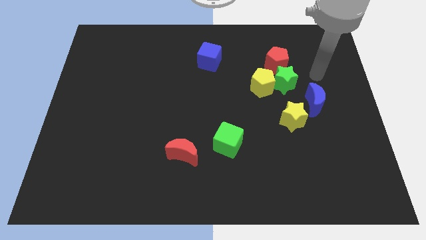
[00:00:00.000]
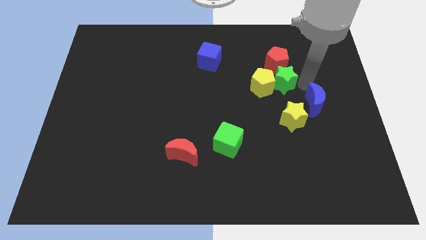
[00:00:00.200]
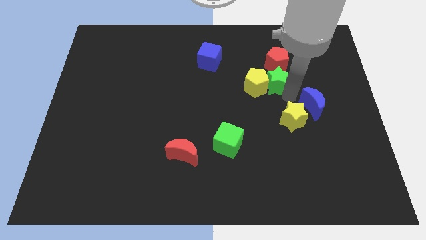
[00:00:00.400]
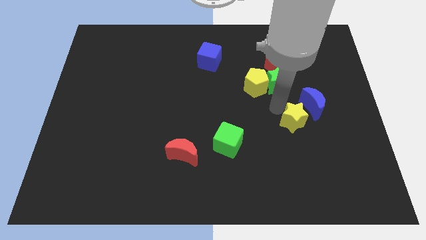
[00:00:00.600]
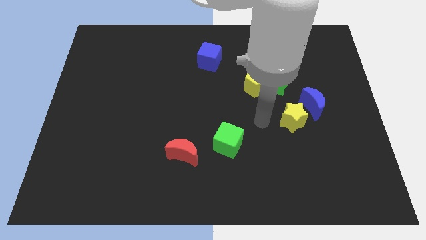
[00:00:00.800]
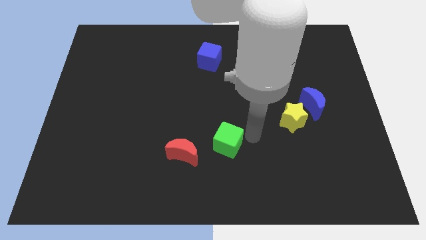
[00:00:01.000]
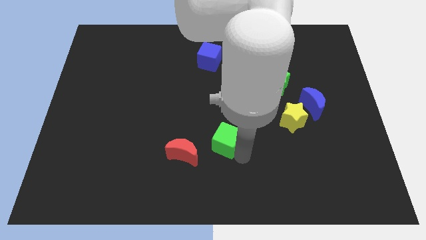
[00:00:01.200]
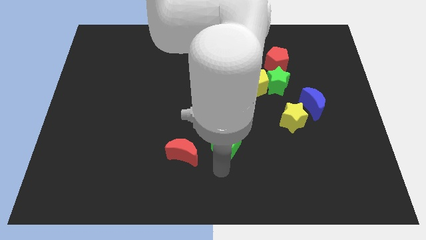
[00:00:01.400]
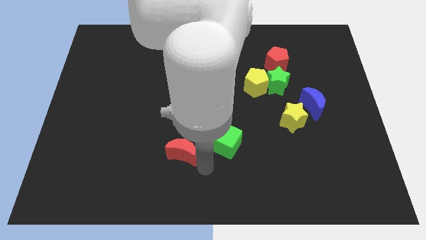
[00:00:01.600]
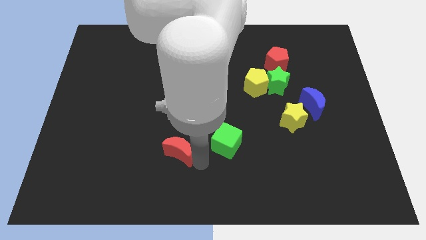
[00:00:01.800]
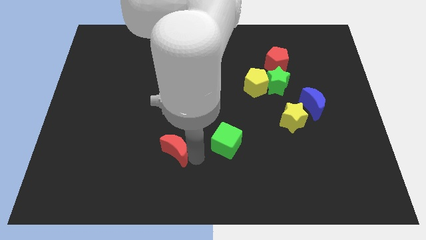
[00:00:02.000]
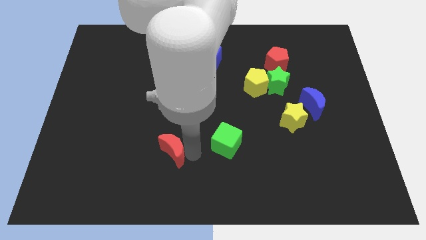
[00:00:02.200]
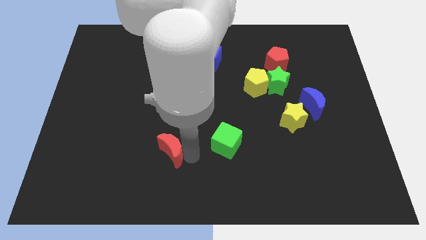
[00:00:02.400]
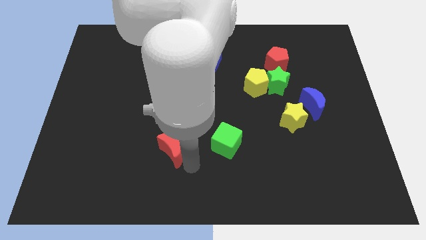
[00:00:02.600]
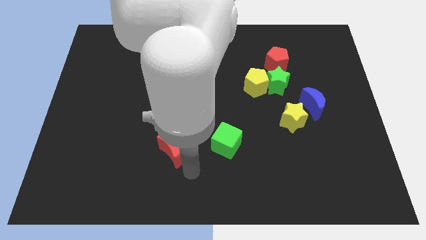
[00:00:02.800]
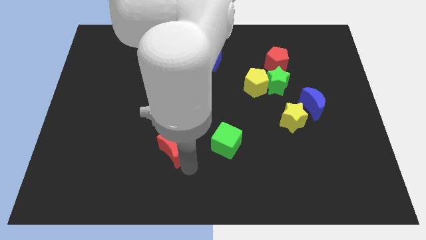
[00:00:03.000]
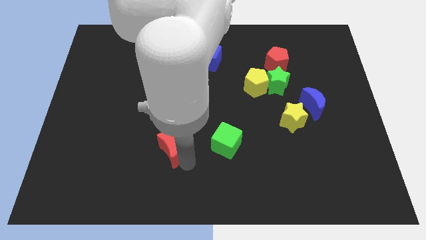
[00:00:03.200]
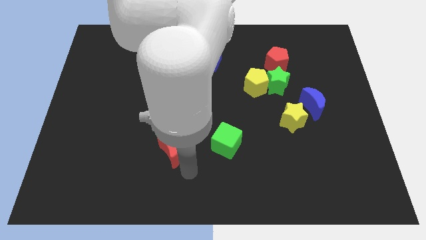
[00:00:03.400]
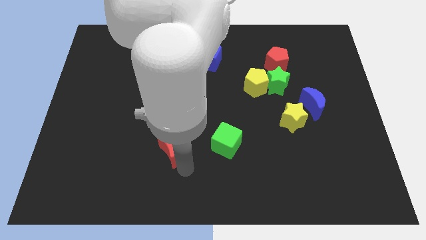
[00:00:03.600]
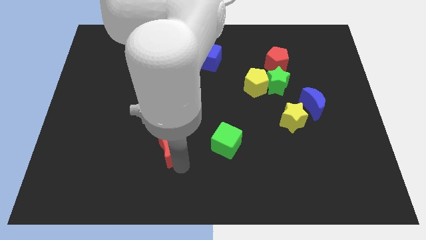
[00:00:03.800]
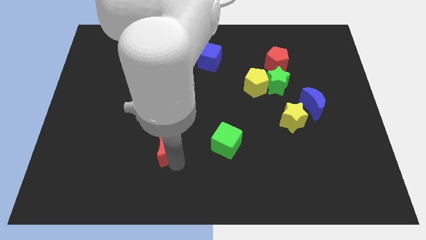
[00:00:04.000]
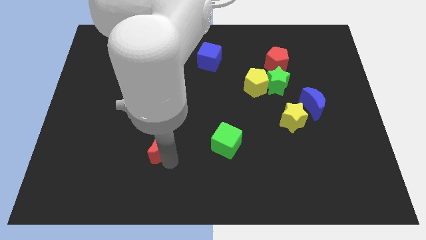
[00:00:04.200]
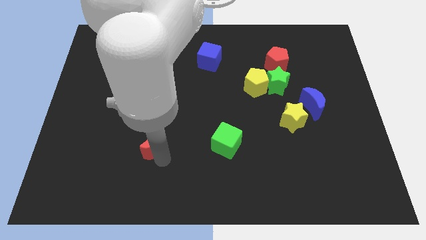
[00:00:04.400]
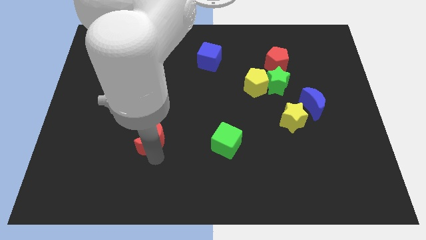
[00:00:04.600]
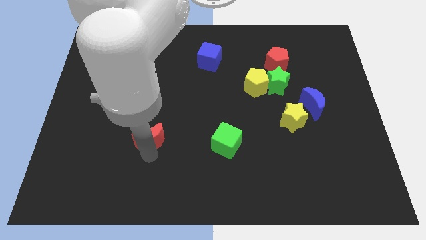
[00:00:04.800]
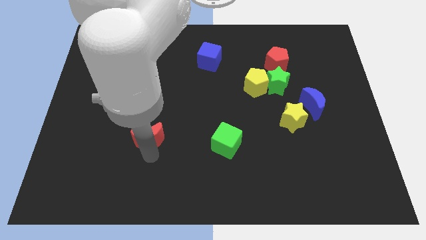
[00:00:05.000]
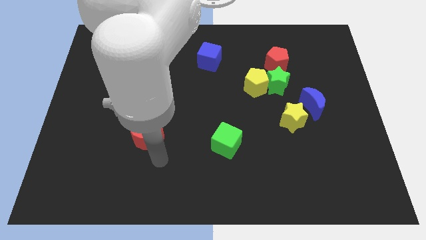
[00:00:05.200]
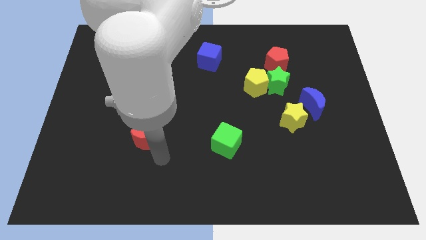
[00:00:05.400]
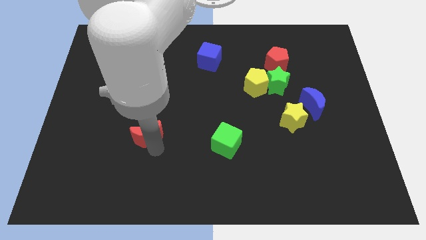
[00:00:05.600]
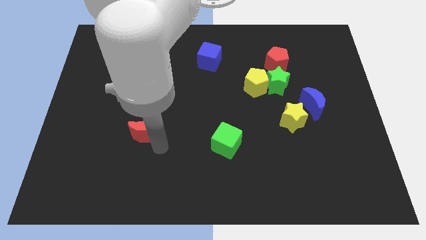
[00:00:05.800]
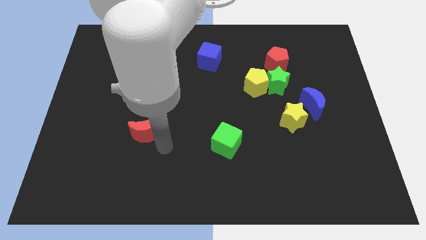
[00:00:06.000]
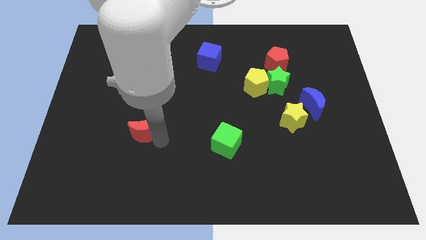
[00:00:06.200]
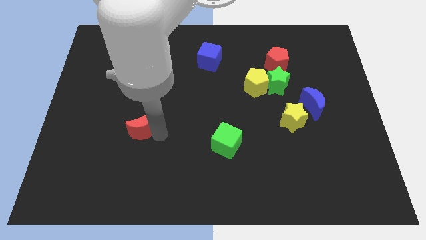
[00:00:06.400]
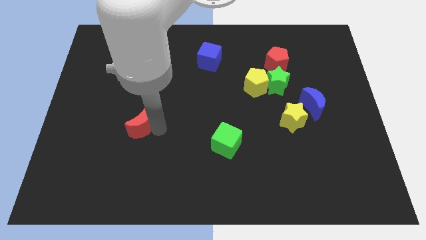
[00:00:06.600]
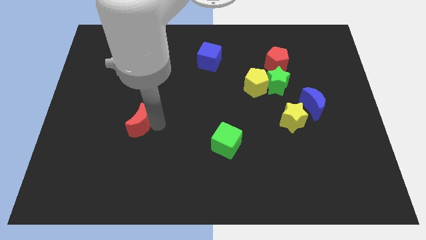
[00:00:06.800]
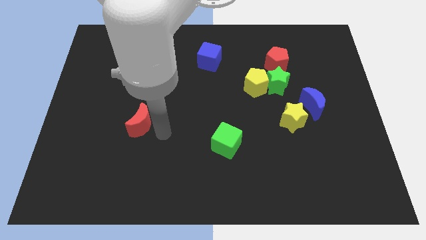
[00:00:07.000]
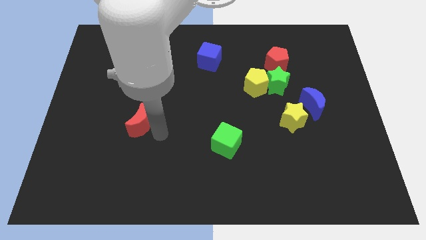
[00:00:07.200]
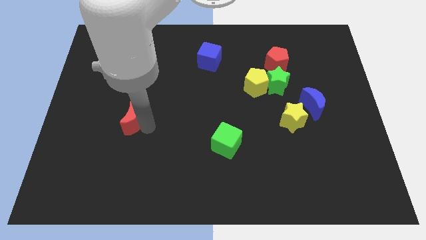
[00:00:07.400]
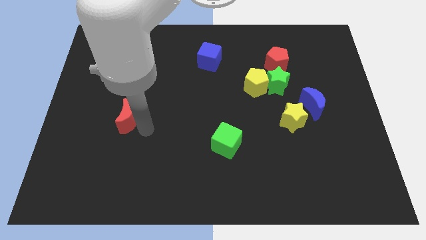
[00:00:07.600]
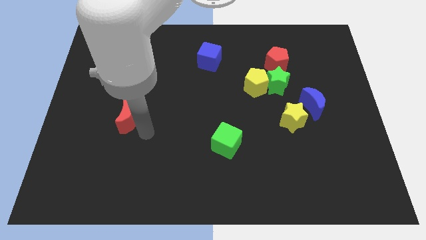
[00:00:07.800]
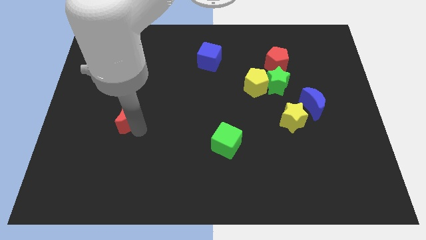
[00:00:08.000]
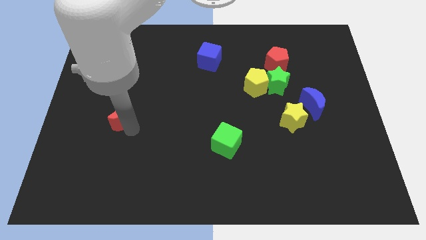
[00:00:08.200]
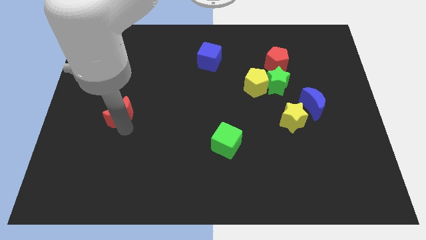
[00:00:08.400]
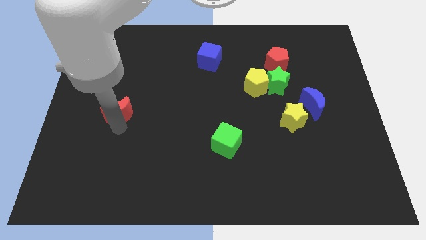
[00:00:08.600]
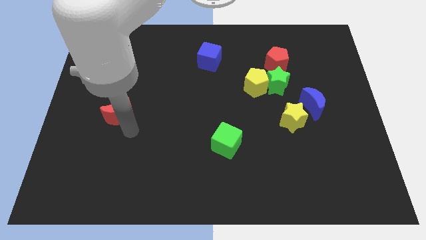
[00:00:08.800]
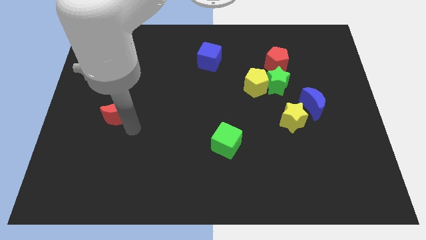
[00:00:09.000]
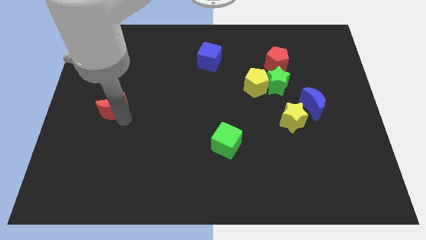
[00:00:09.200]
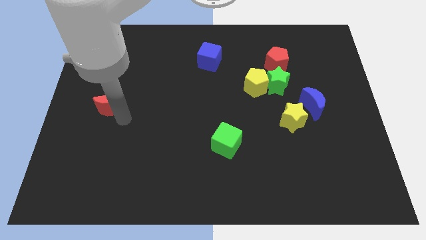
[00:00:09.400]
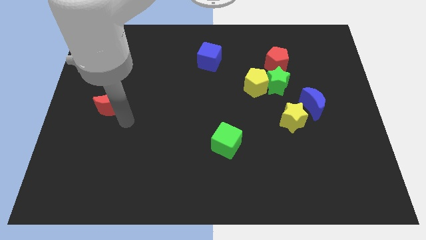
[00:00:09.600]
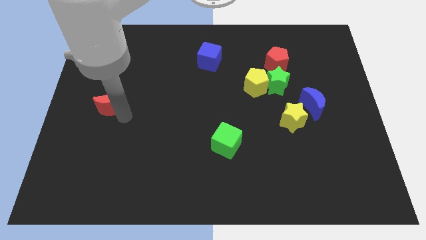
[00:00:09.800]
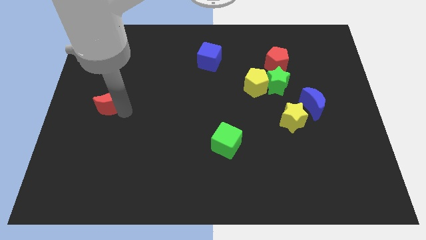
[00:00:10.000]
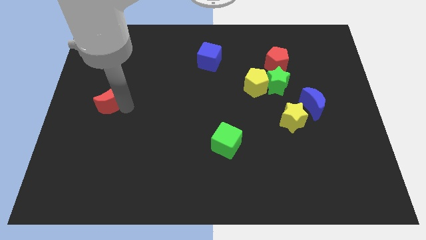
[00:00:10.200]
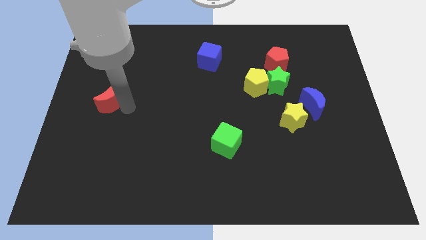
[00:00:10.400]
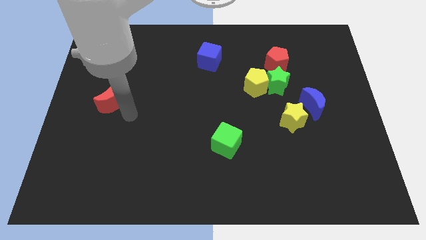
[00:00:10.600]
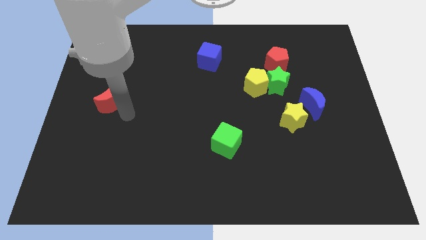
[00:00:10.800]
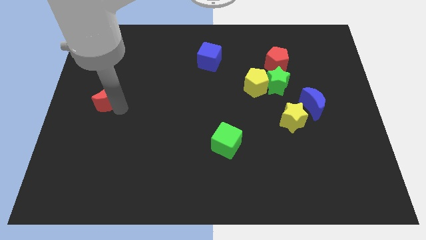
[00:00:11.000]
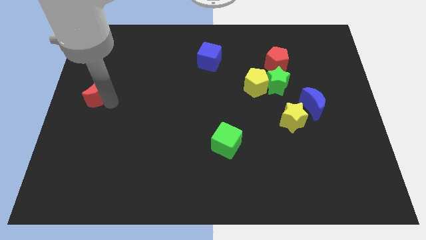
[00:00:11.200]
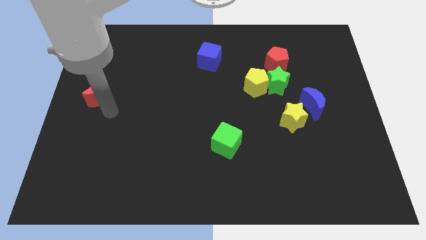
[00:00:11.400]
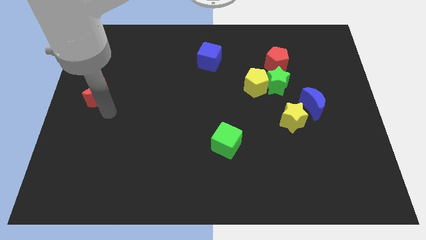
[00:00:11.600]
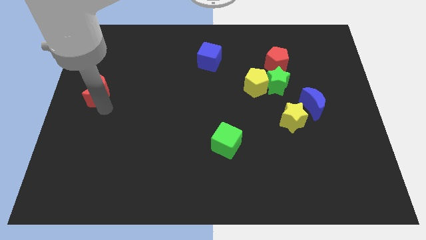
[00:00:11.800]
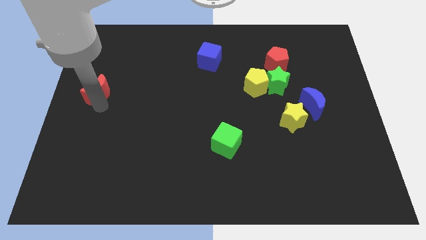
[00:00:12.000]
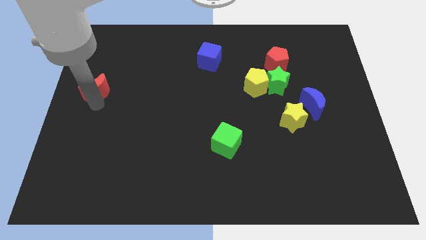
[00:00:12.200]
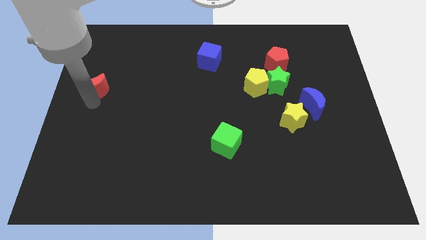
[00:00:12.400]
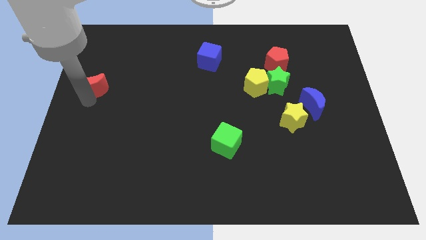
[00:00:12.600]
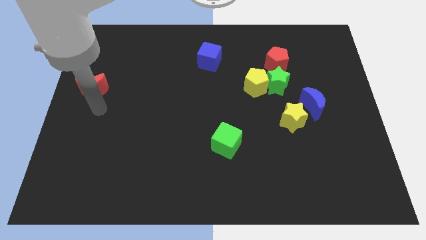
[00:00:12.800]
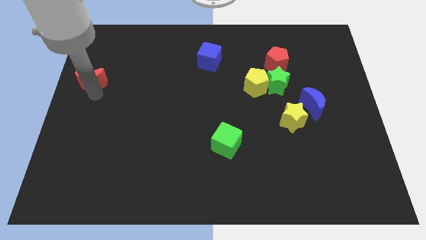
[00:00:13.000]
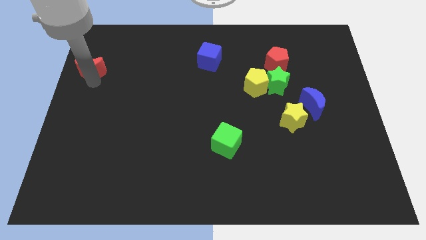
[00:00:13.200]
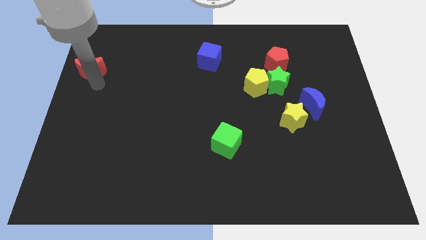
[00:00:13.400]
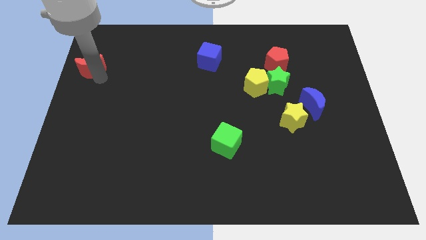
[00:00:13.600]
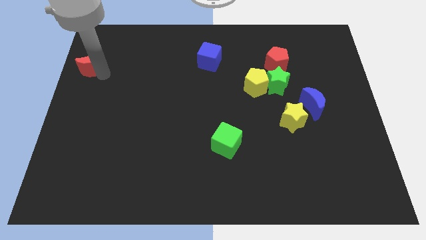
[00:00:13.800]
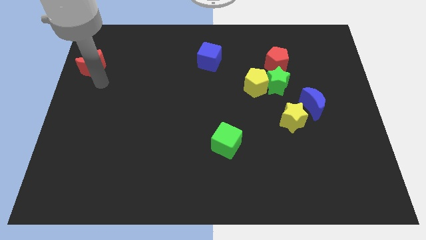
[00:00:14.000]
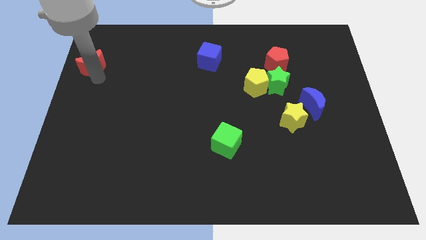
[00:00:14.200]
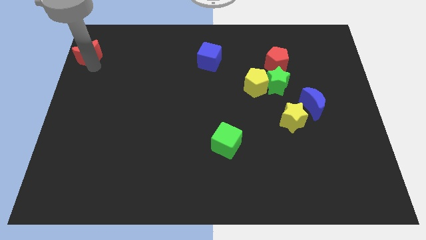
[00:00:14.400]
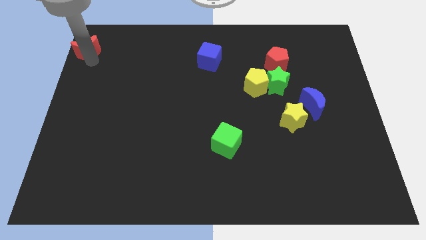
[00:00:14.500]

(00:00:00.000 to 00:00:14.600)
put the red moon to the top left
